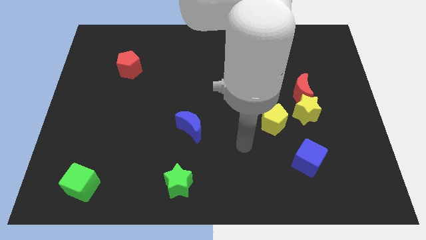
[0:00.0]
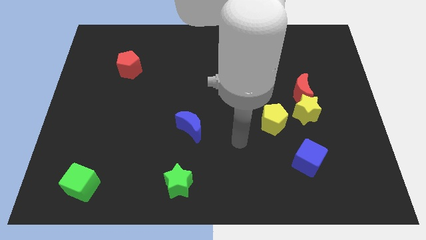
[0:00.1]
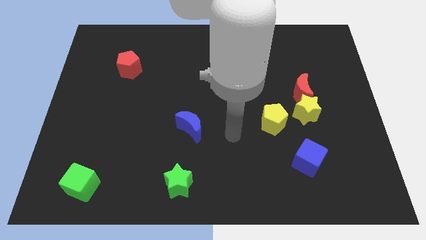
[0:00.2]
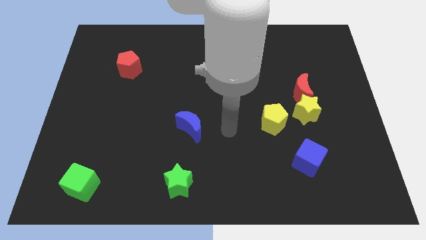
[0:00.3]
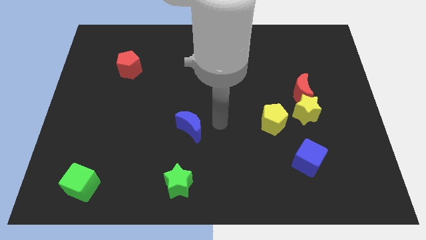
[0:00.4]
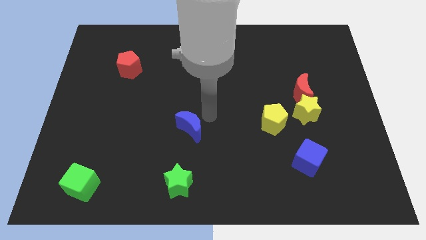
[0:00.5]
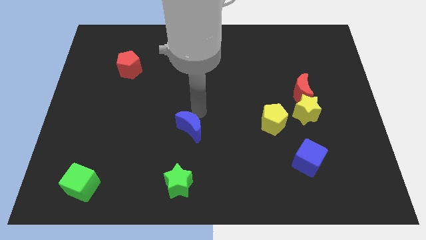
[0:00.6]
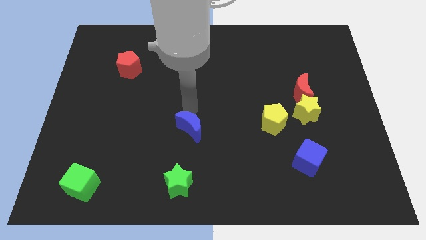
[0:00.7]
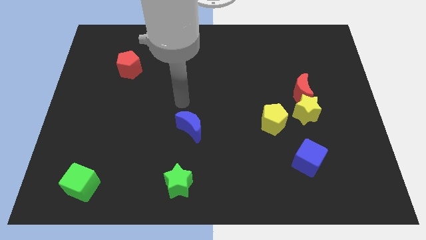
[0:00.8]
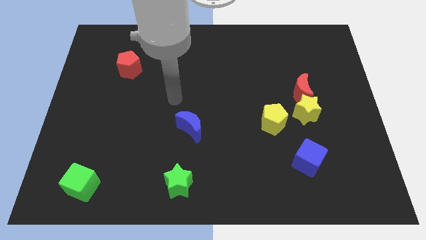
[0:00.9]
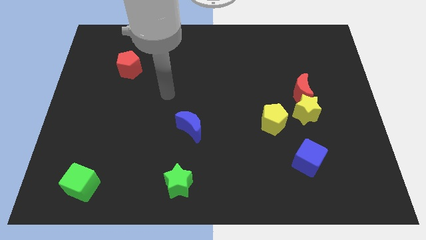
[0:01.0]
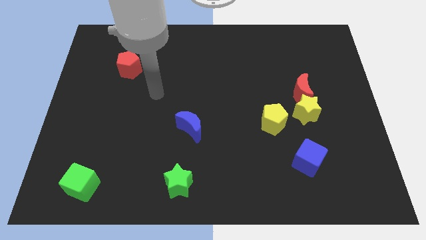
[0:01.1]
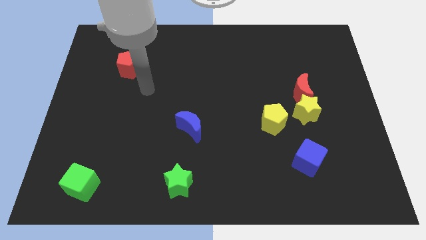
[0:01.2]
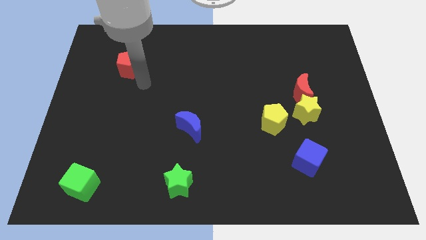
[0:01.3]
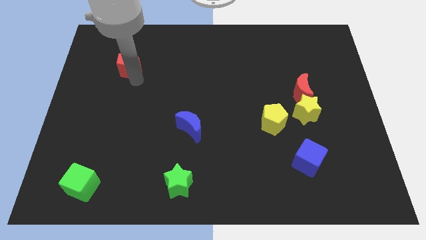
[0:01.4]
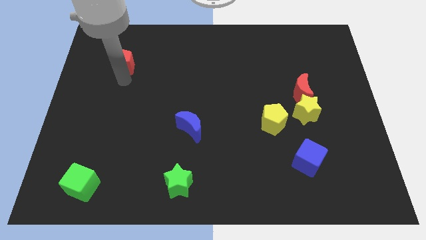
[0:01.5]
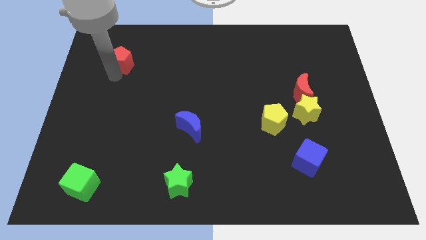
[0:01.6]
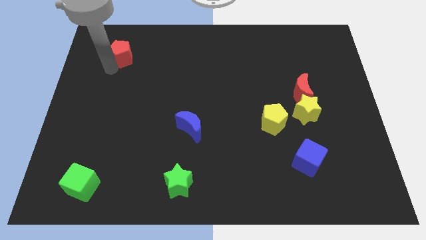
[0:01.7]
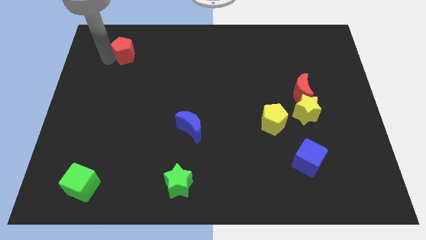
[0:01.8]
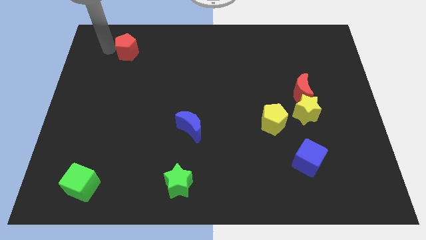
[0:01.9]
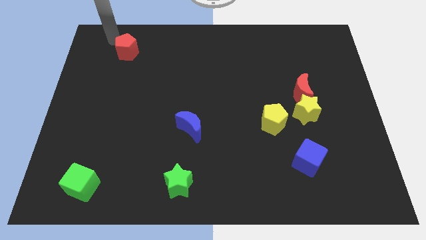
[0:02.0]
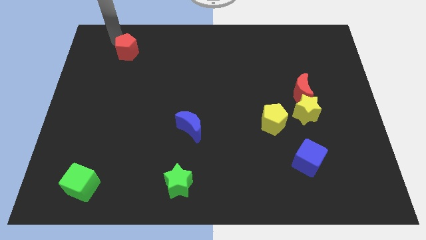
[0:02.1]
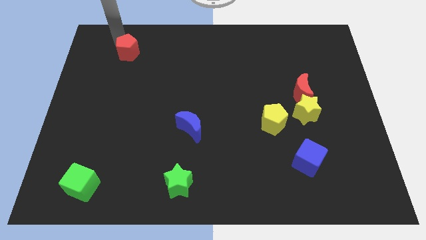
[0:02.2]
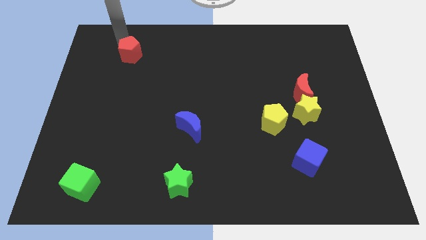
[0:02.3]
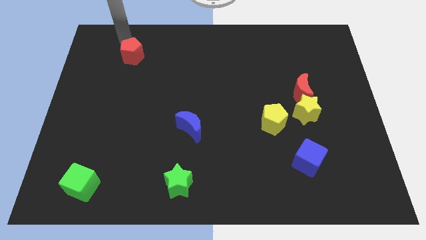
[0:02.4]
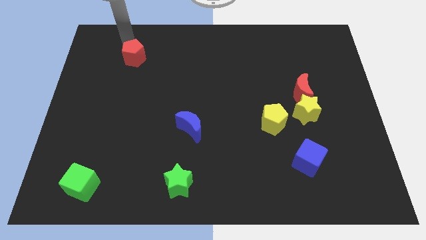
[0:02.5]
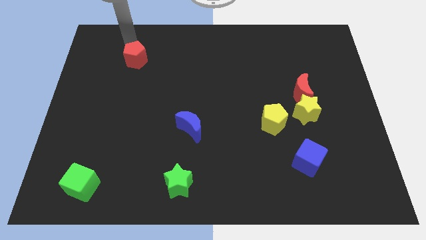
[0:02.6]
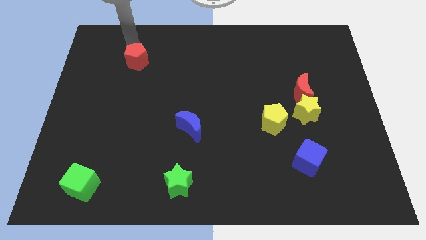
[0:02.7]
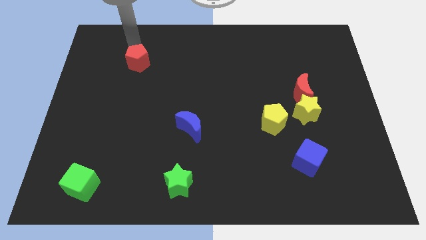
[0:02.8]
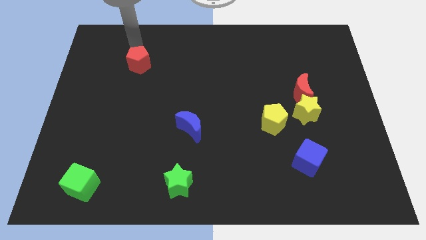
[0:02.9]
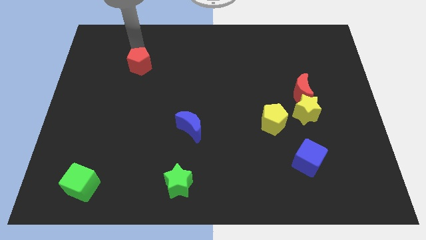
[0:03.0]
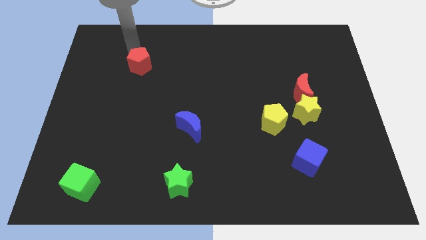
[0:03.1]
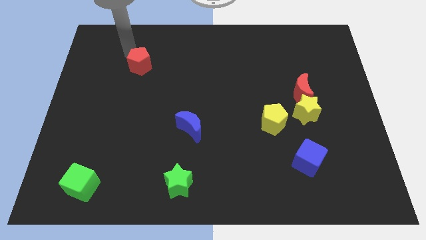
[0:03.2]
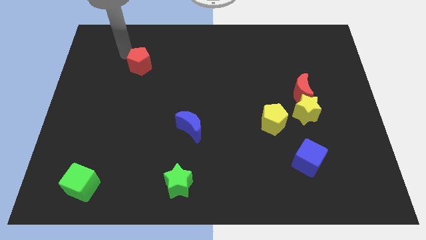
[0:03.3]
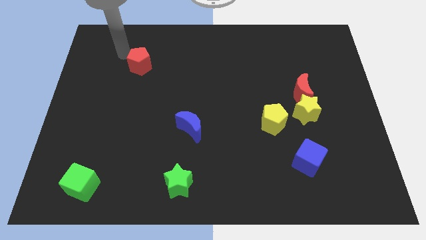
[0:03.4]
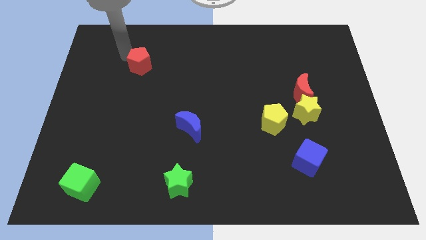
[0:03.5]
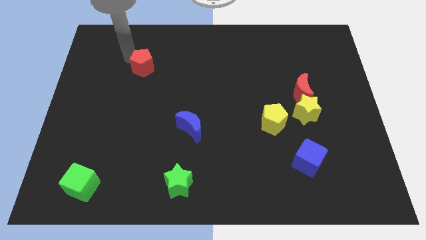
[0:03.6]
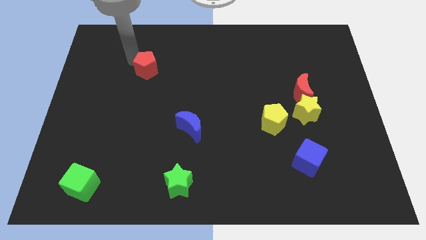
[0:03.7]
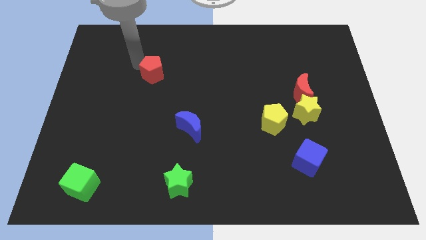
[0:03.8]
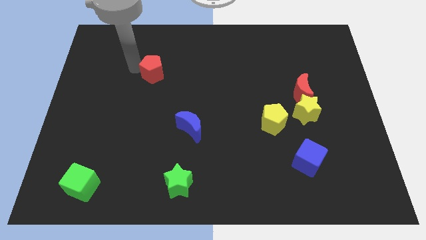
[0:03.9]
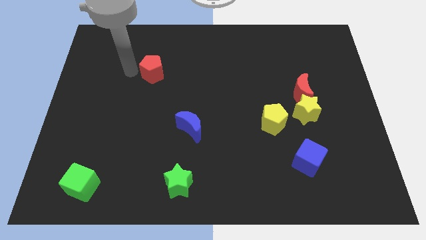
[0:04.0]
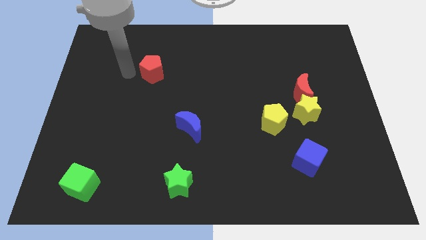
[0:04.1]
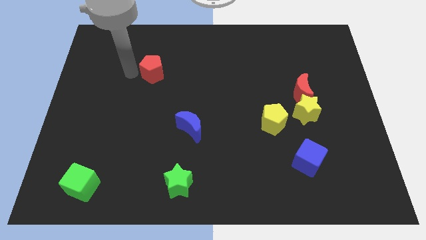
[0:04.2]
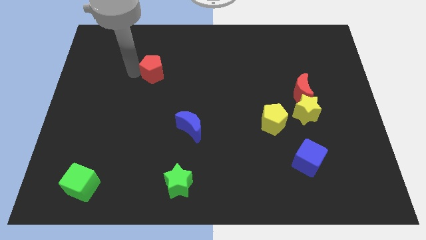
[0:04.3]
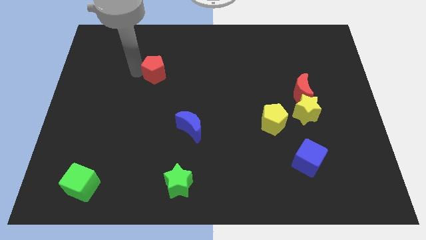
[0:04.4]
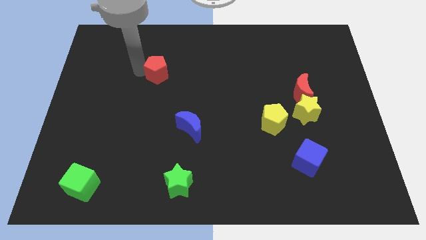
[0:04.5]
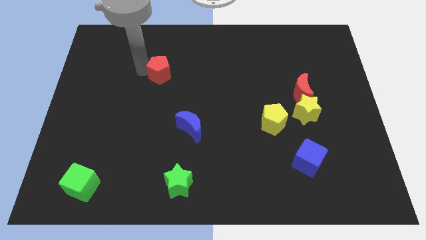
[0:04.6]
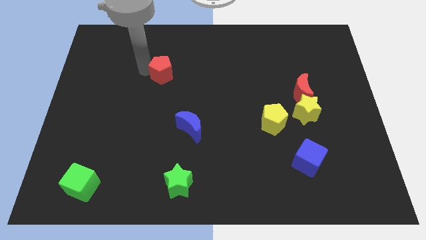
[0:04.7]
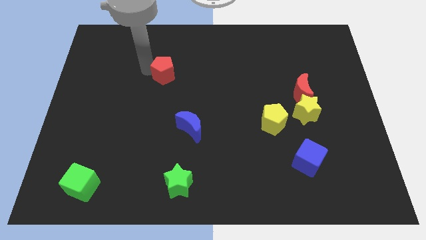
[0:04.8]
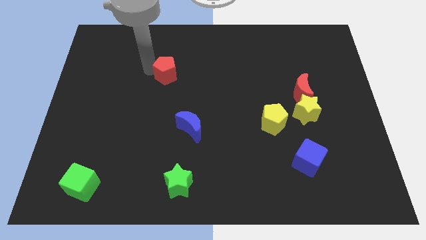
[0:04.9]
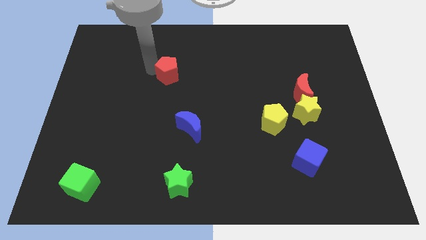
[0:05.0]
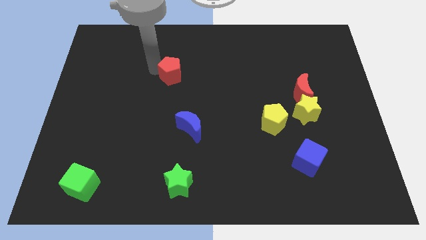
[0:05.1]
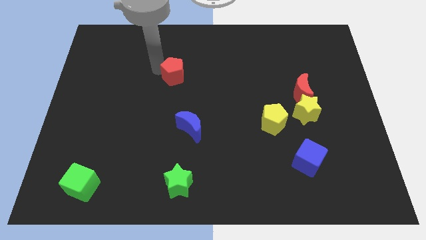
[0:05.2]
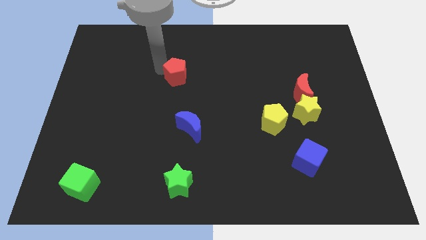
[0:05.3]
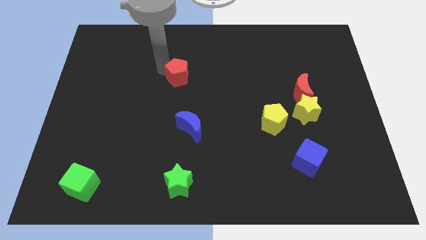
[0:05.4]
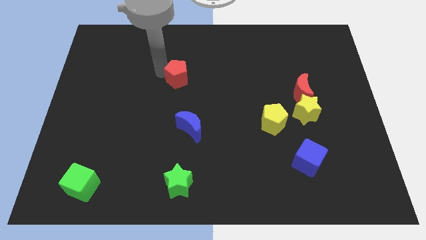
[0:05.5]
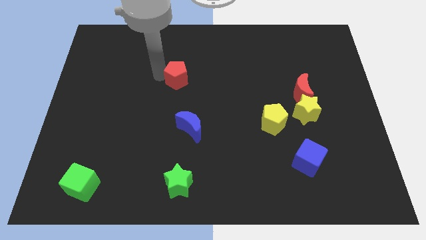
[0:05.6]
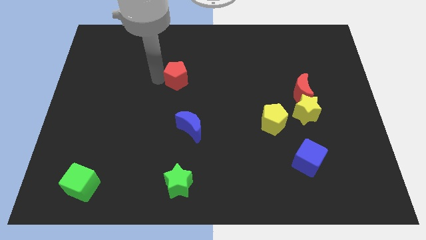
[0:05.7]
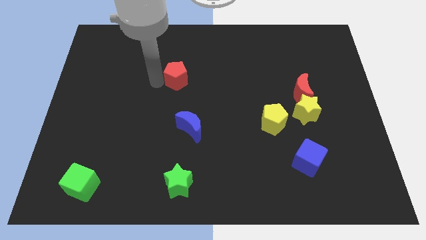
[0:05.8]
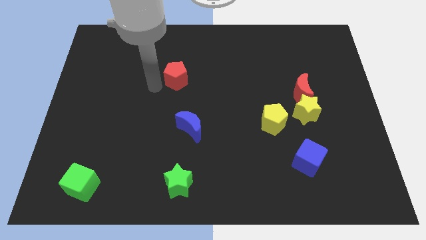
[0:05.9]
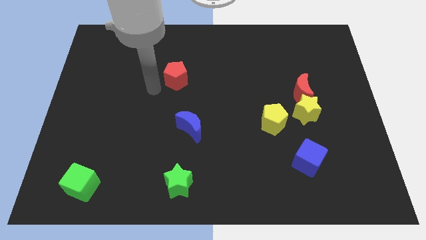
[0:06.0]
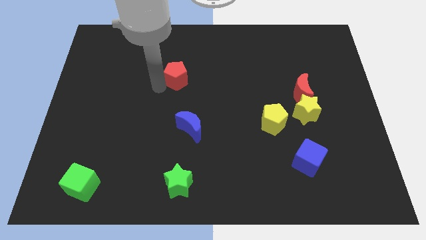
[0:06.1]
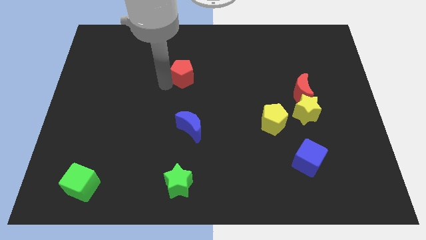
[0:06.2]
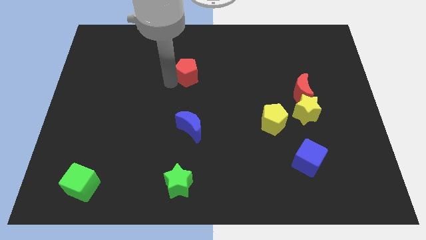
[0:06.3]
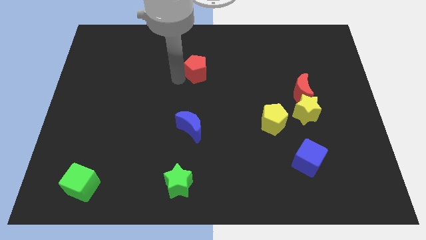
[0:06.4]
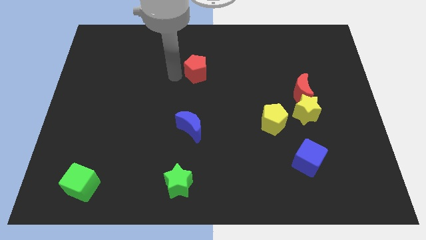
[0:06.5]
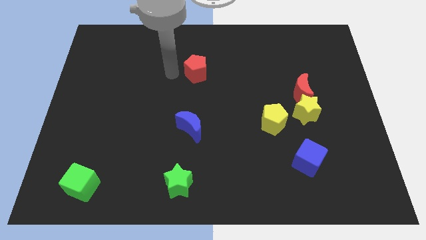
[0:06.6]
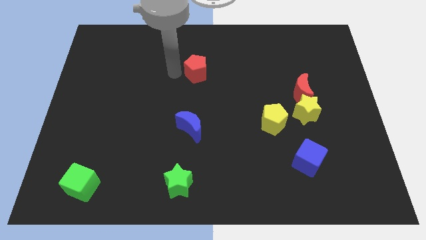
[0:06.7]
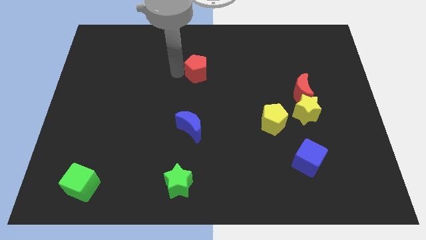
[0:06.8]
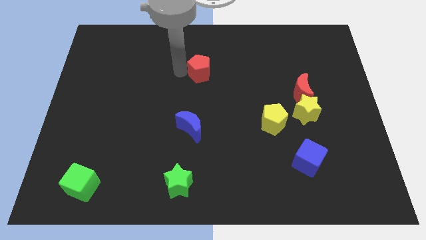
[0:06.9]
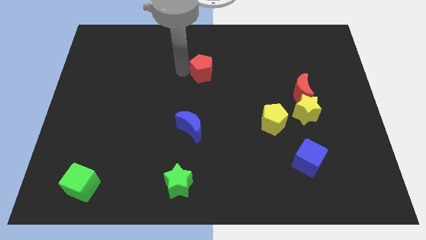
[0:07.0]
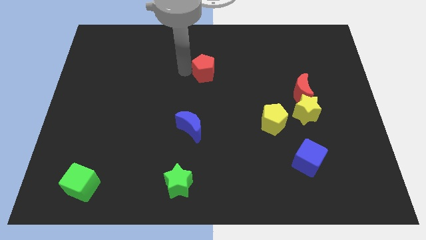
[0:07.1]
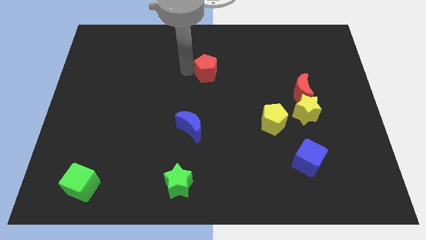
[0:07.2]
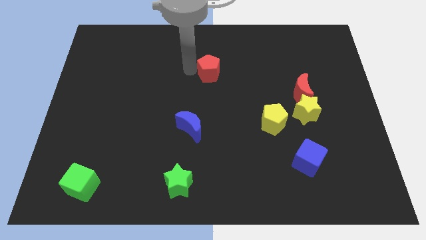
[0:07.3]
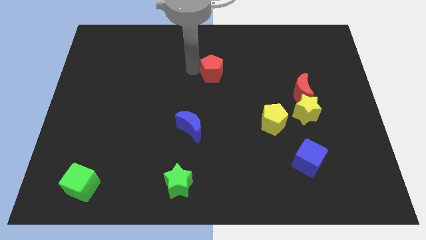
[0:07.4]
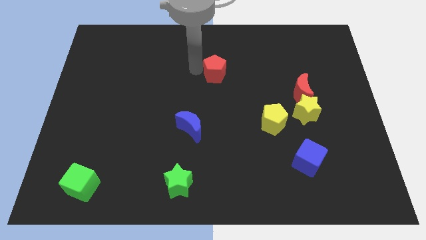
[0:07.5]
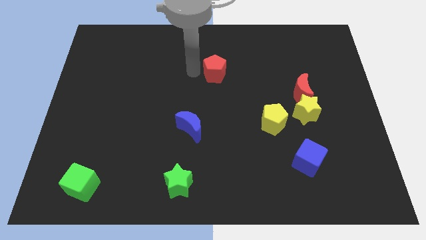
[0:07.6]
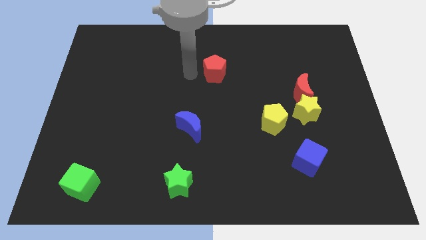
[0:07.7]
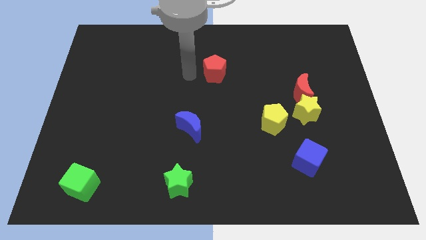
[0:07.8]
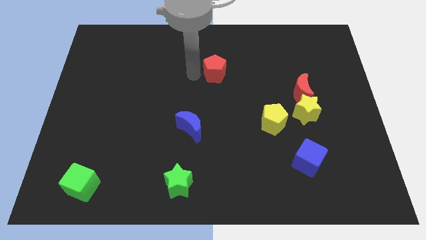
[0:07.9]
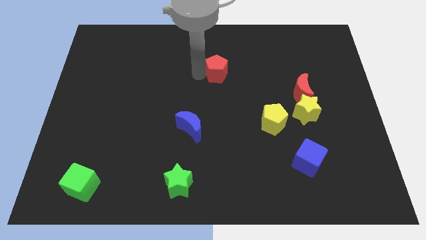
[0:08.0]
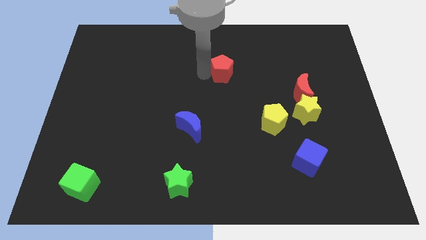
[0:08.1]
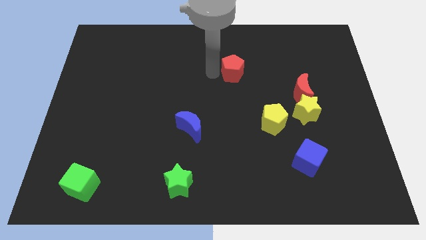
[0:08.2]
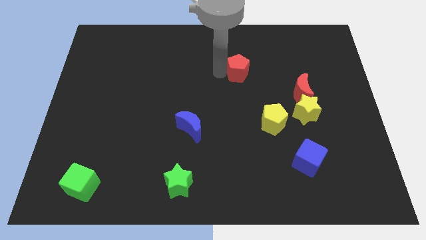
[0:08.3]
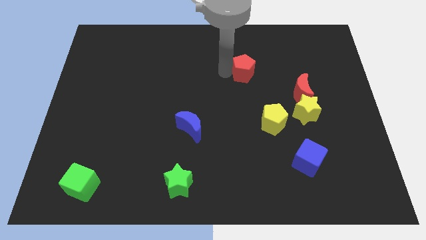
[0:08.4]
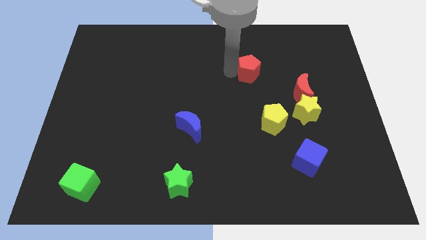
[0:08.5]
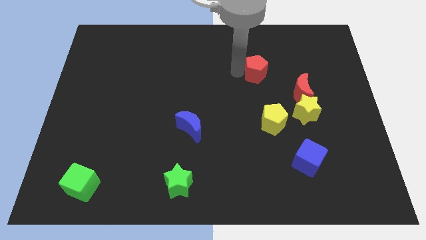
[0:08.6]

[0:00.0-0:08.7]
slide the red pentagon diagonally up and to the left of the red moon
